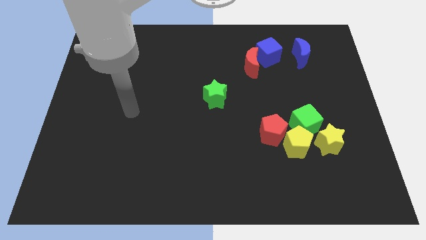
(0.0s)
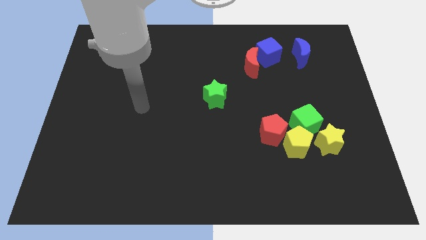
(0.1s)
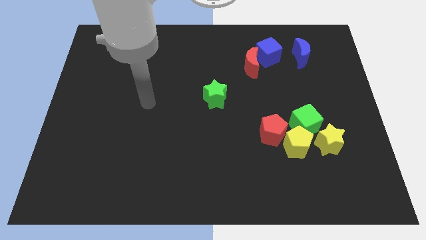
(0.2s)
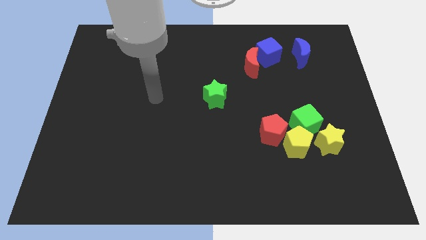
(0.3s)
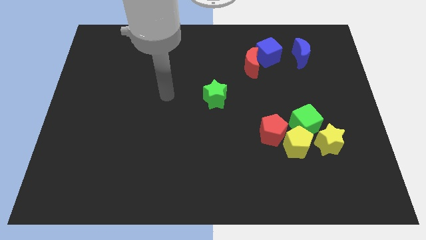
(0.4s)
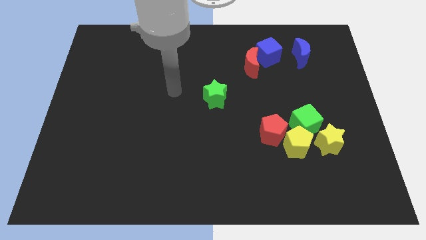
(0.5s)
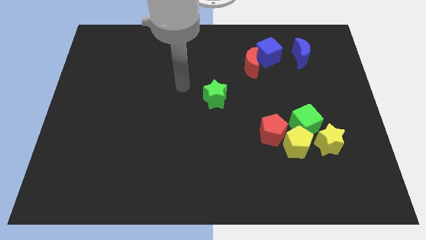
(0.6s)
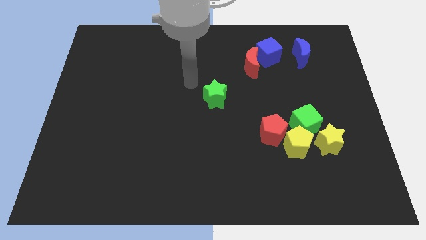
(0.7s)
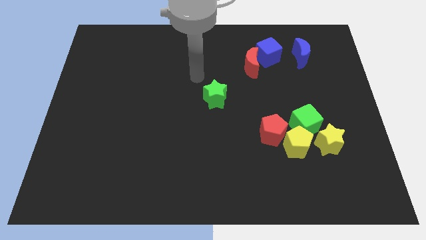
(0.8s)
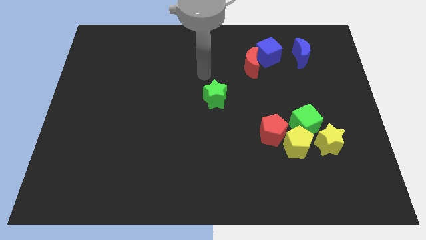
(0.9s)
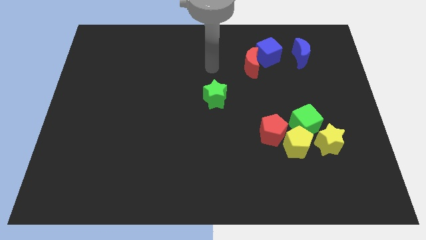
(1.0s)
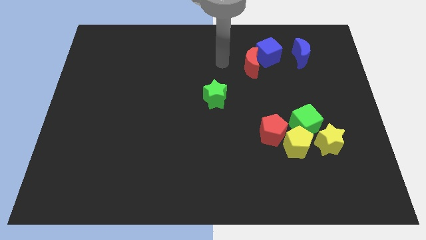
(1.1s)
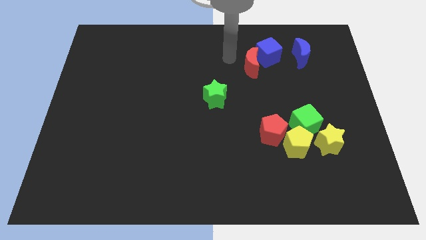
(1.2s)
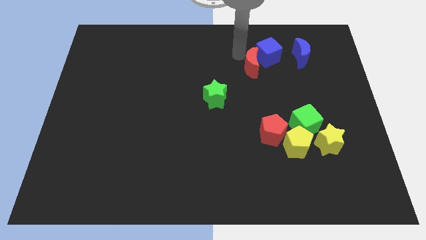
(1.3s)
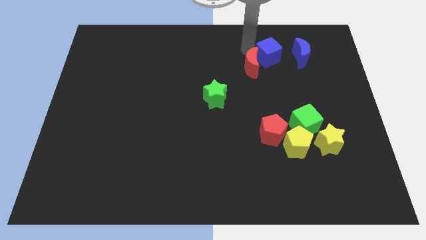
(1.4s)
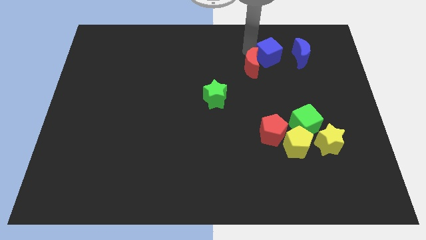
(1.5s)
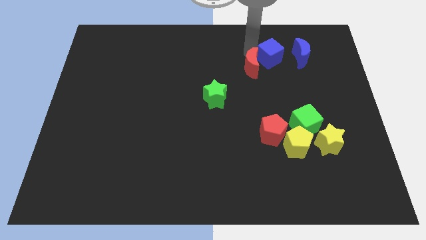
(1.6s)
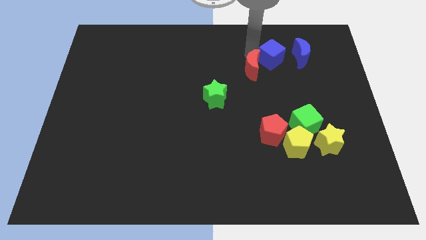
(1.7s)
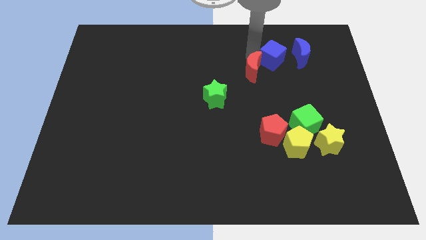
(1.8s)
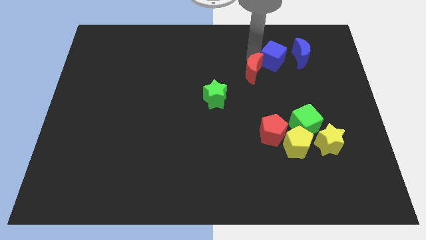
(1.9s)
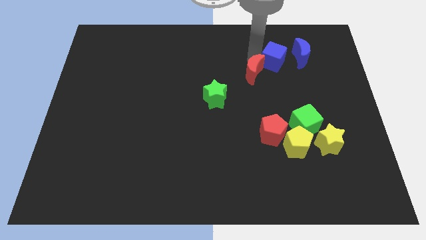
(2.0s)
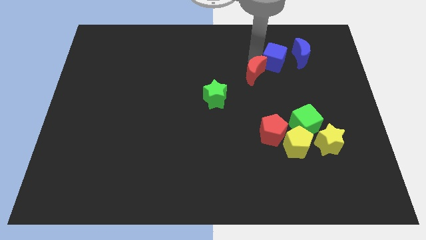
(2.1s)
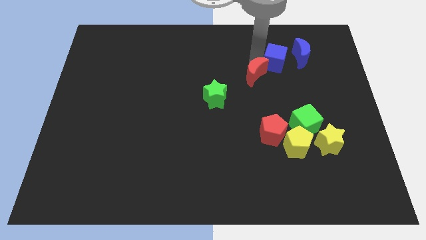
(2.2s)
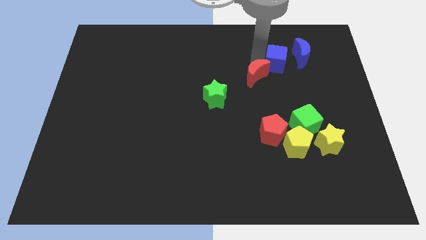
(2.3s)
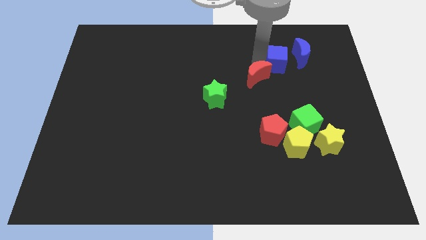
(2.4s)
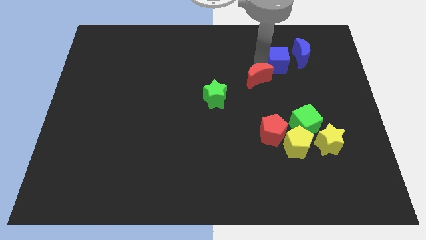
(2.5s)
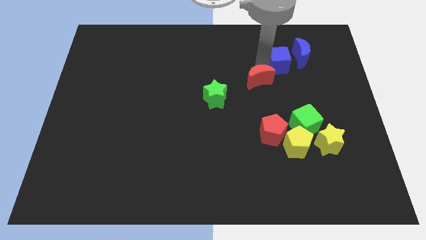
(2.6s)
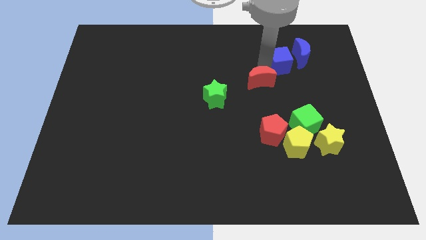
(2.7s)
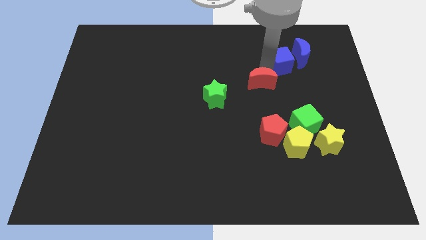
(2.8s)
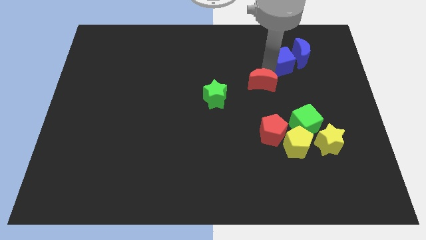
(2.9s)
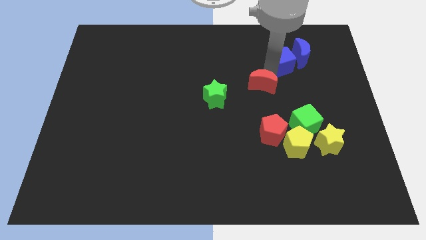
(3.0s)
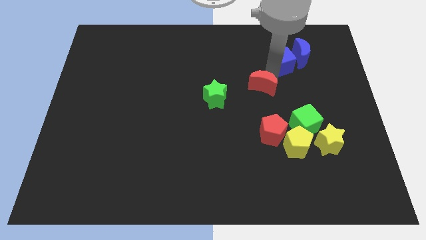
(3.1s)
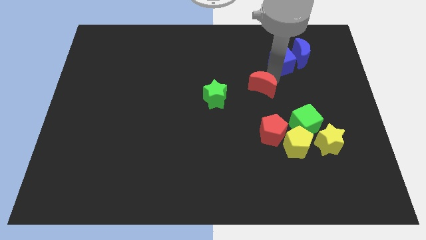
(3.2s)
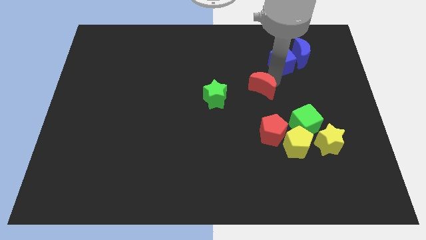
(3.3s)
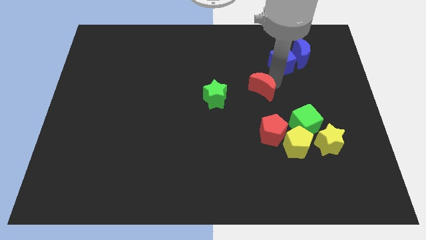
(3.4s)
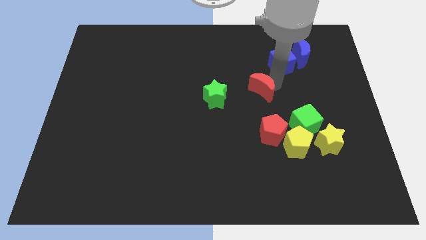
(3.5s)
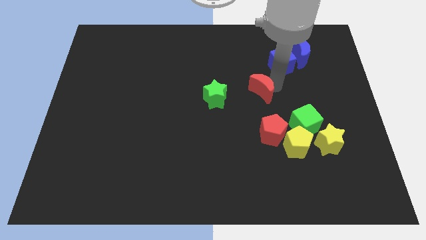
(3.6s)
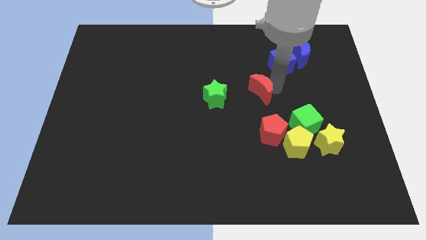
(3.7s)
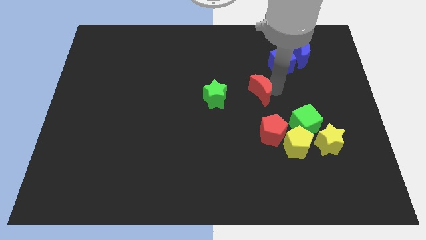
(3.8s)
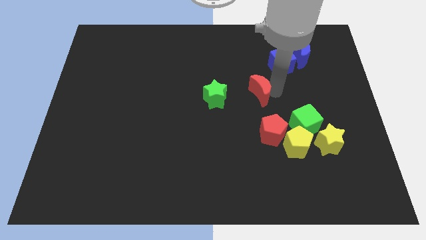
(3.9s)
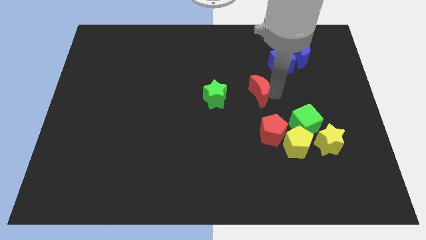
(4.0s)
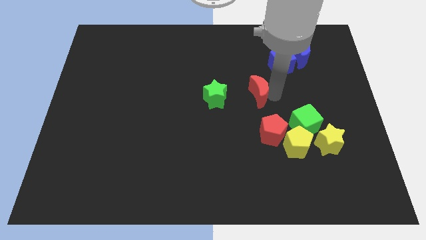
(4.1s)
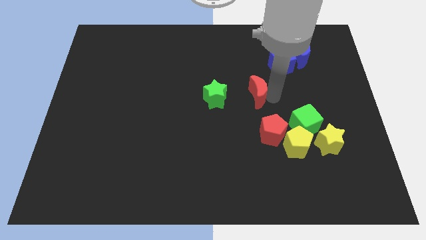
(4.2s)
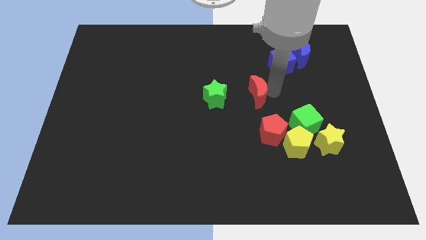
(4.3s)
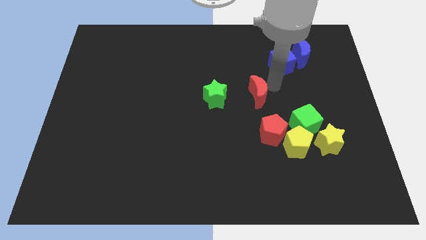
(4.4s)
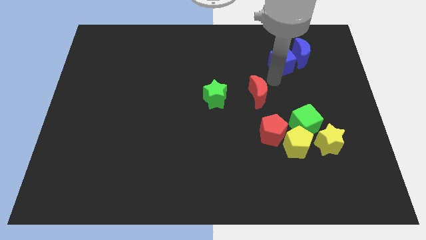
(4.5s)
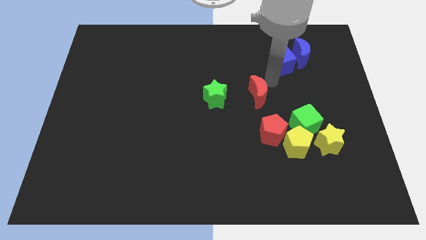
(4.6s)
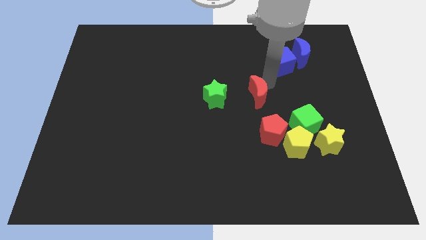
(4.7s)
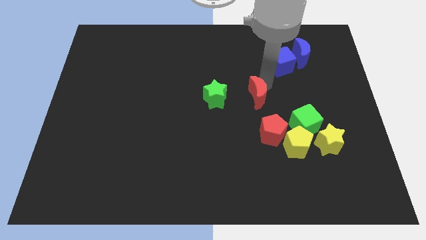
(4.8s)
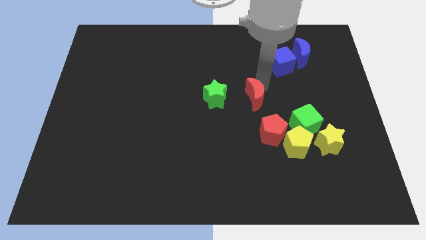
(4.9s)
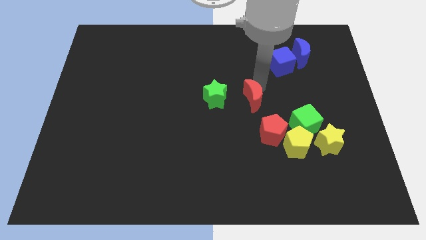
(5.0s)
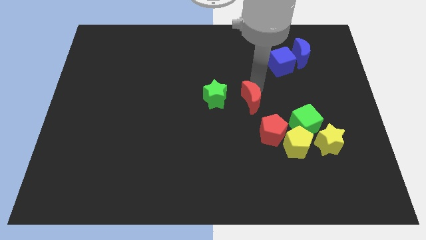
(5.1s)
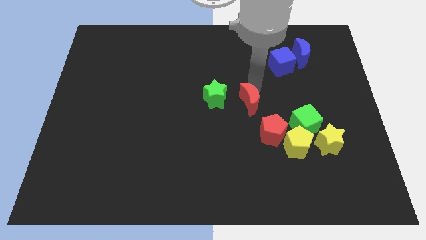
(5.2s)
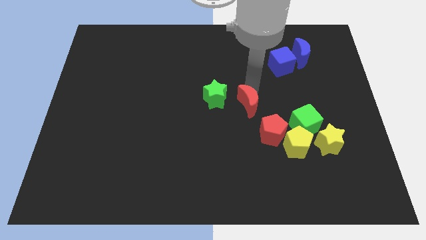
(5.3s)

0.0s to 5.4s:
put the red moon to the bottom right side of the green star

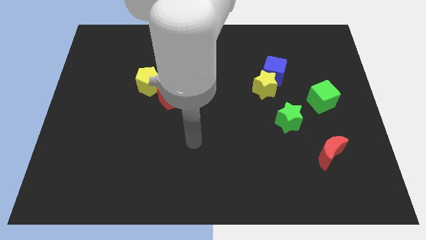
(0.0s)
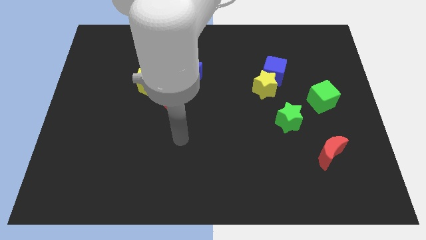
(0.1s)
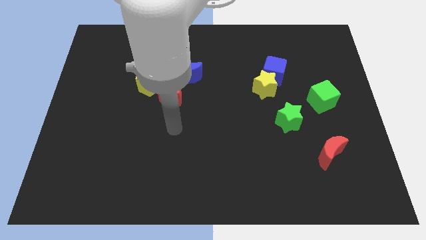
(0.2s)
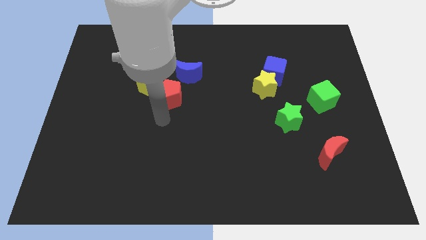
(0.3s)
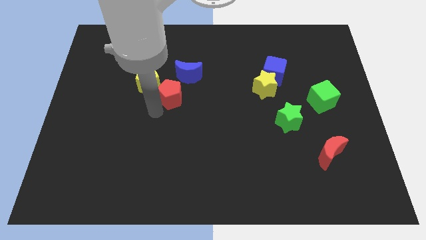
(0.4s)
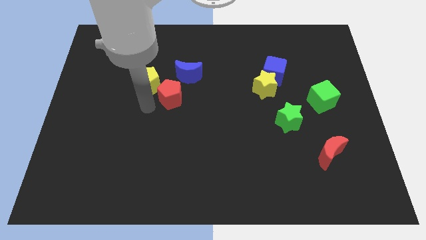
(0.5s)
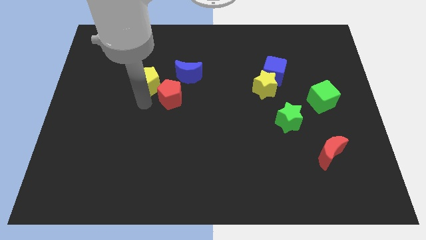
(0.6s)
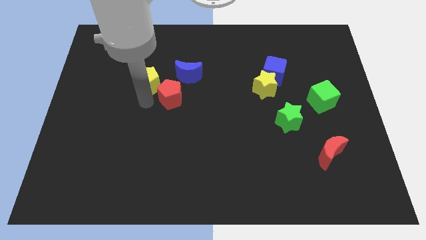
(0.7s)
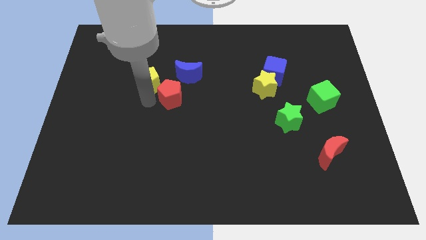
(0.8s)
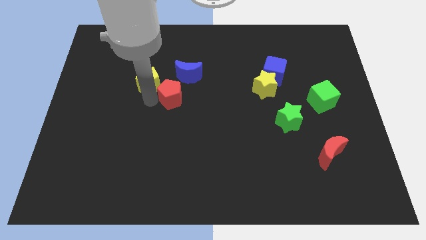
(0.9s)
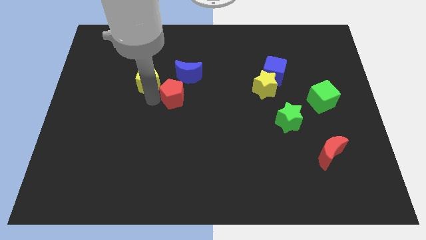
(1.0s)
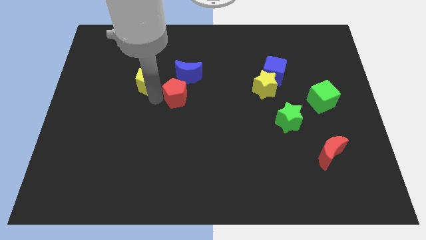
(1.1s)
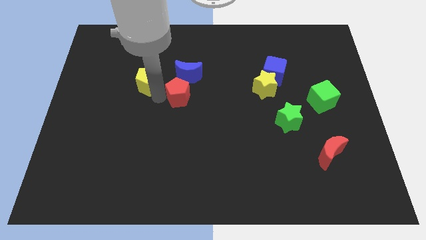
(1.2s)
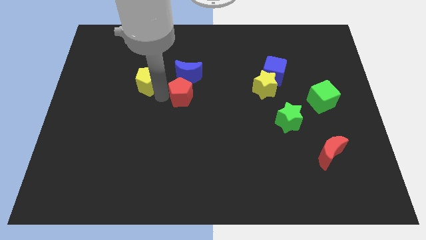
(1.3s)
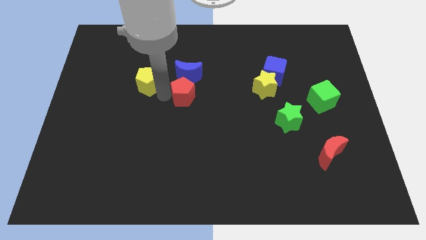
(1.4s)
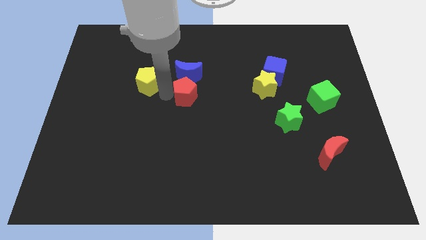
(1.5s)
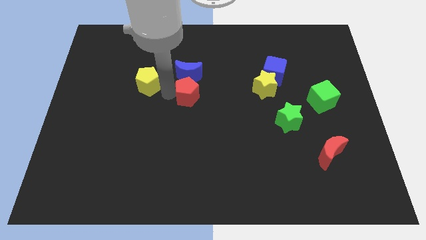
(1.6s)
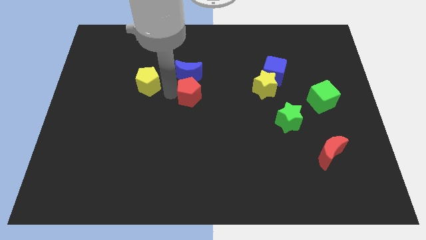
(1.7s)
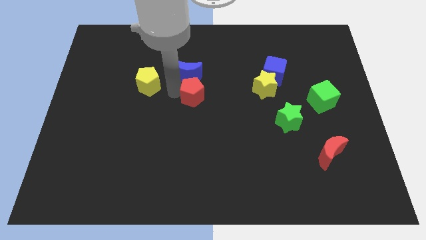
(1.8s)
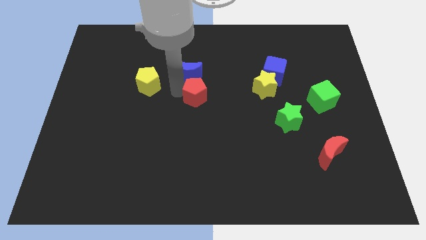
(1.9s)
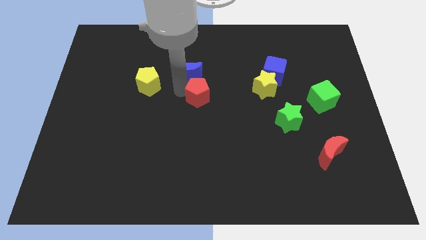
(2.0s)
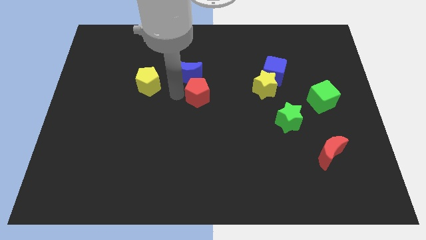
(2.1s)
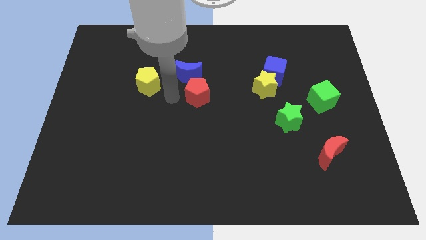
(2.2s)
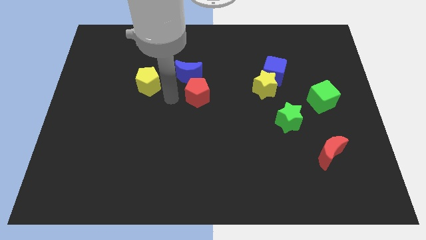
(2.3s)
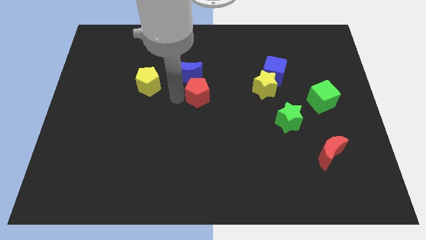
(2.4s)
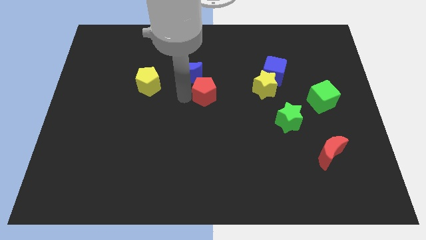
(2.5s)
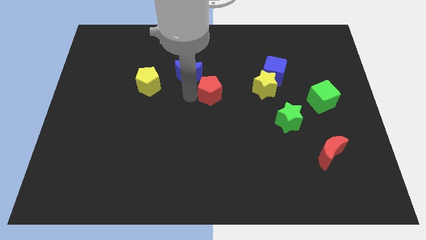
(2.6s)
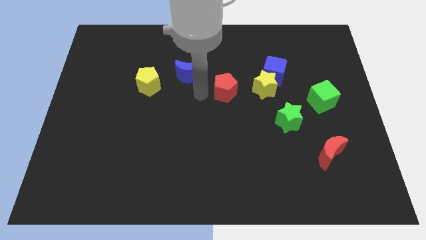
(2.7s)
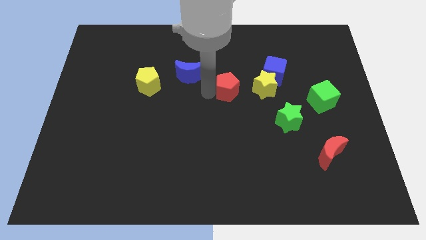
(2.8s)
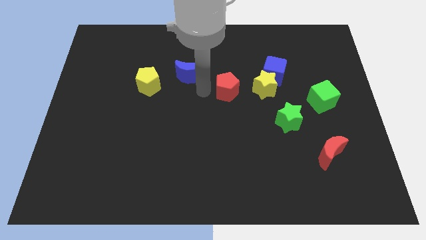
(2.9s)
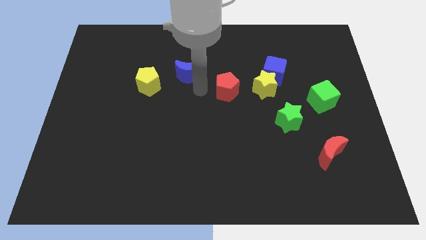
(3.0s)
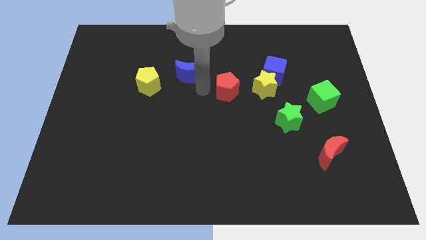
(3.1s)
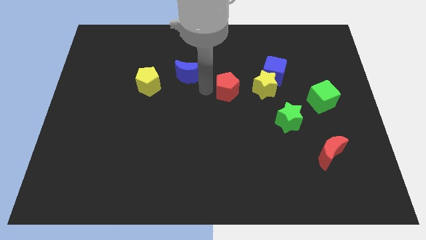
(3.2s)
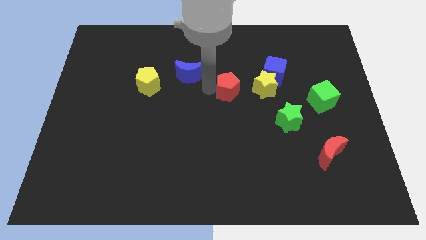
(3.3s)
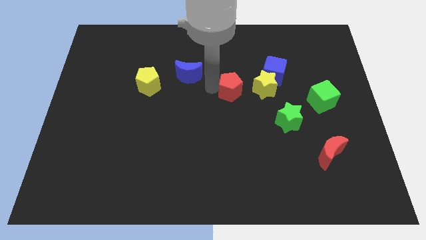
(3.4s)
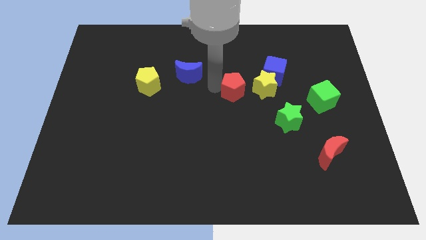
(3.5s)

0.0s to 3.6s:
move the red pentagon to the bottom left side of the blue cube
